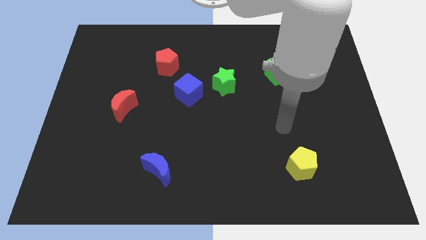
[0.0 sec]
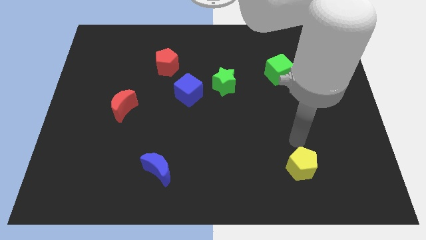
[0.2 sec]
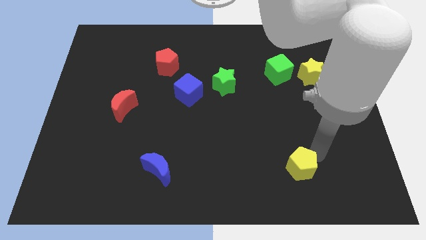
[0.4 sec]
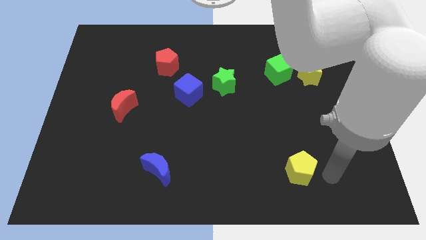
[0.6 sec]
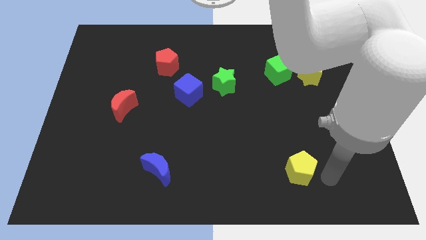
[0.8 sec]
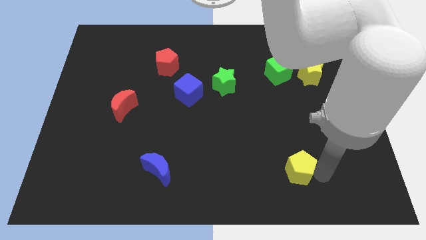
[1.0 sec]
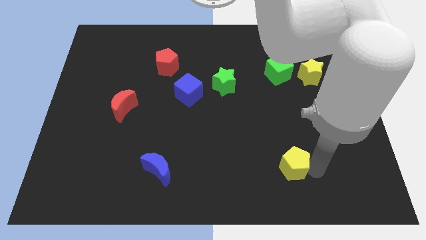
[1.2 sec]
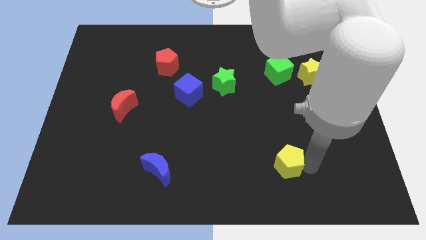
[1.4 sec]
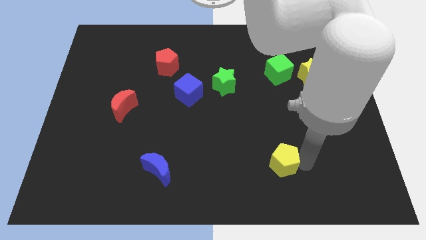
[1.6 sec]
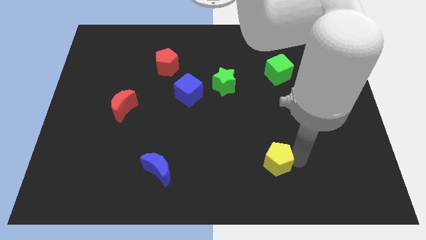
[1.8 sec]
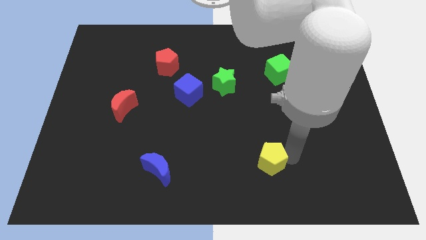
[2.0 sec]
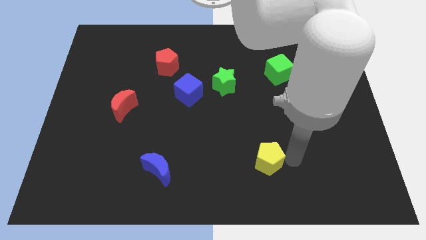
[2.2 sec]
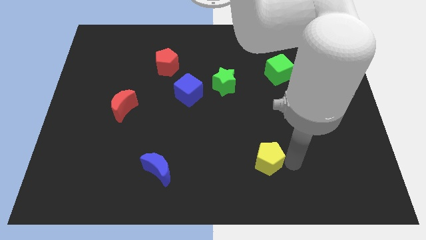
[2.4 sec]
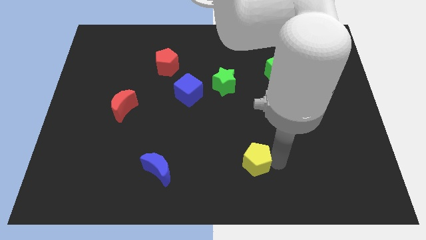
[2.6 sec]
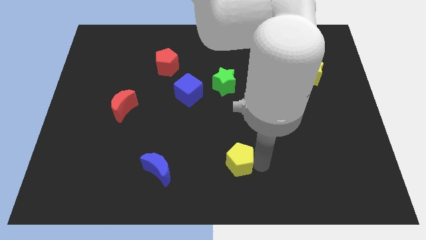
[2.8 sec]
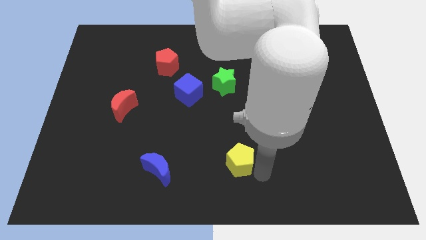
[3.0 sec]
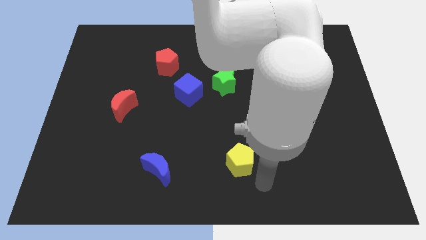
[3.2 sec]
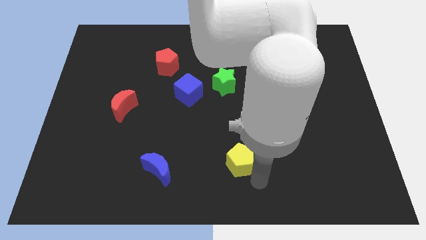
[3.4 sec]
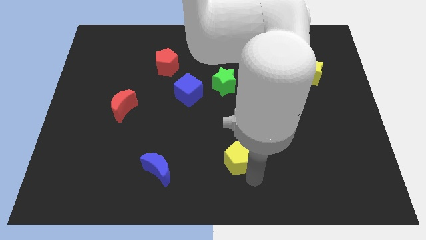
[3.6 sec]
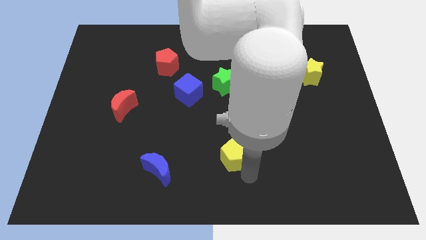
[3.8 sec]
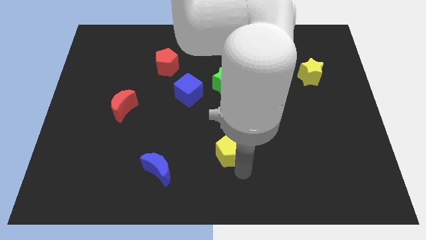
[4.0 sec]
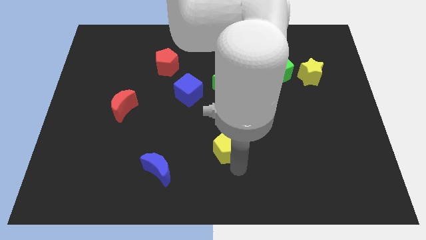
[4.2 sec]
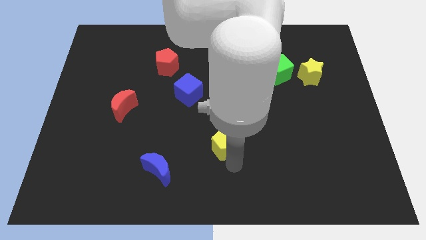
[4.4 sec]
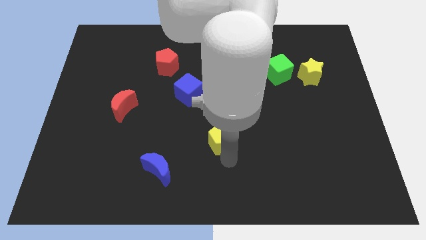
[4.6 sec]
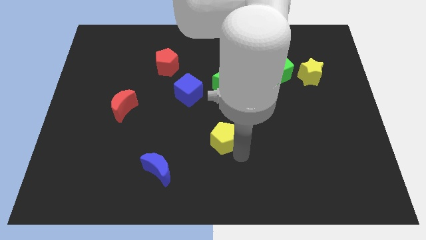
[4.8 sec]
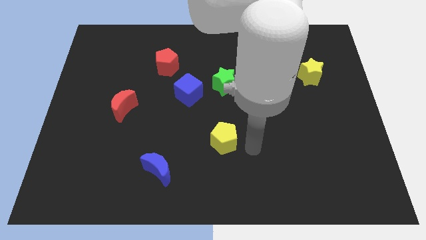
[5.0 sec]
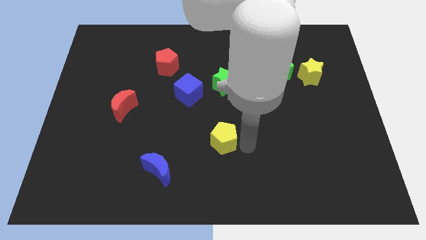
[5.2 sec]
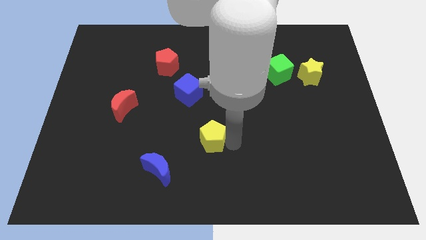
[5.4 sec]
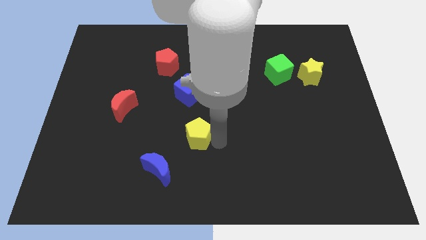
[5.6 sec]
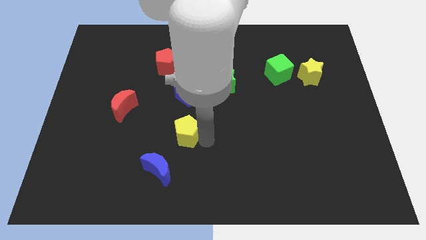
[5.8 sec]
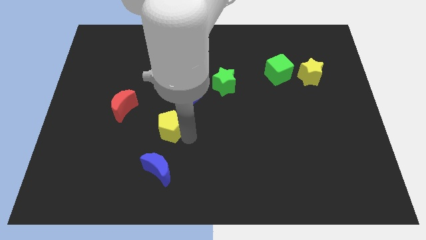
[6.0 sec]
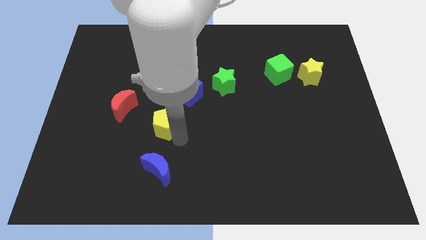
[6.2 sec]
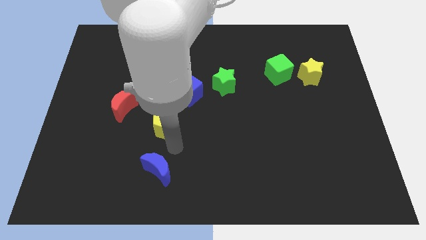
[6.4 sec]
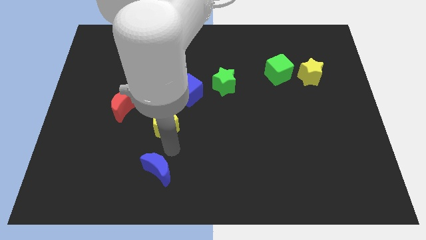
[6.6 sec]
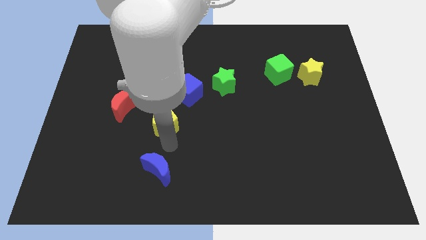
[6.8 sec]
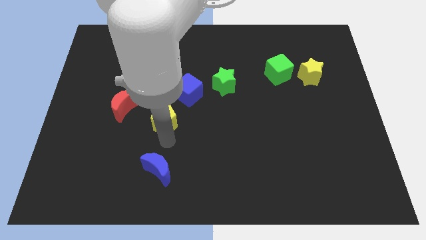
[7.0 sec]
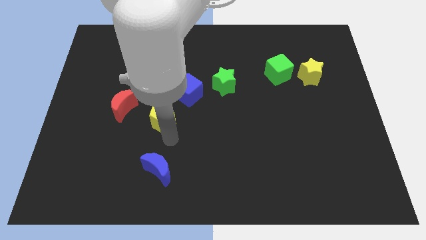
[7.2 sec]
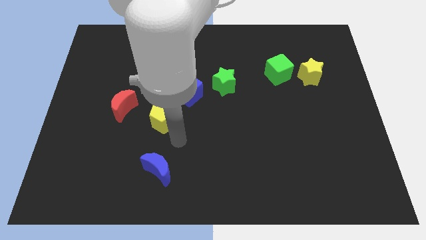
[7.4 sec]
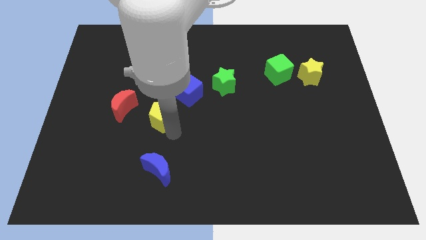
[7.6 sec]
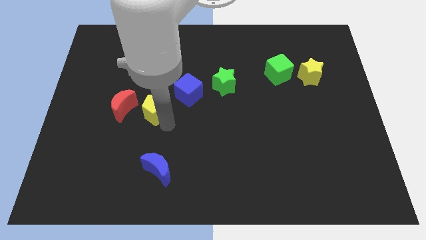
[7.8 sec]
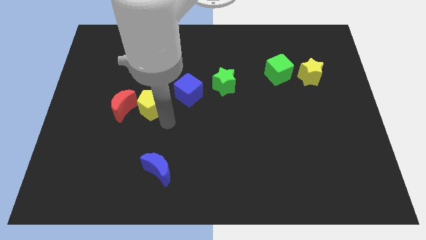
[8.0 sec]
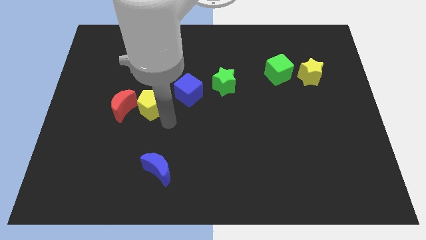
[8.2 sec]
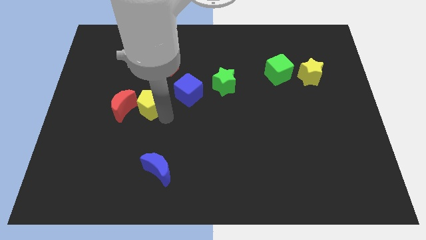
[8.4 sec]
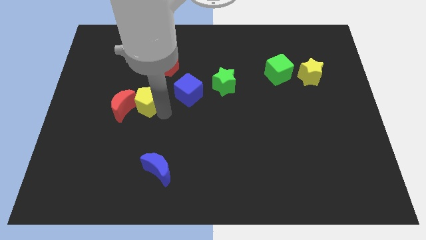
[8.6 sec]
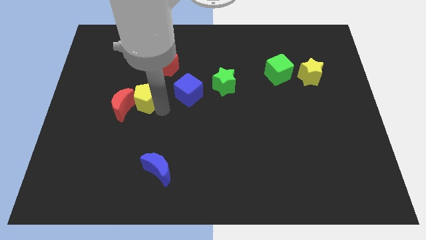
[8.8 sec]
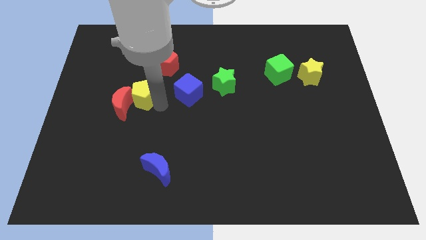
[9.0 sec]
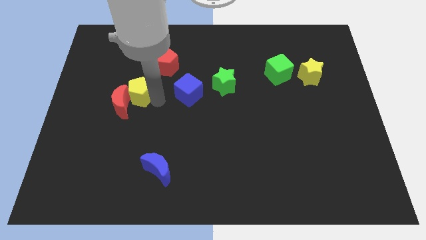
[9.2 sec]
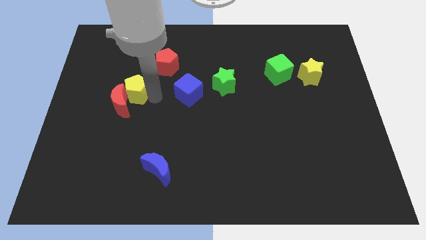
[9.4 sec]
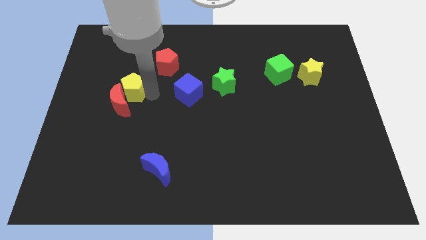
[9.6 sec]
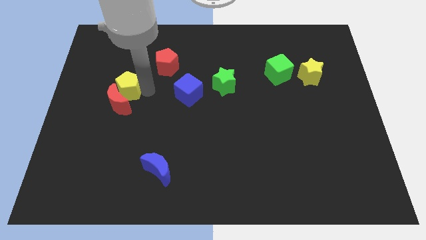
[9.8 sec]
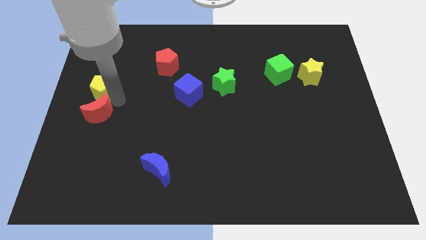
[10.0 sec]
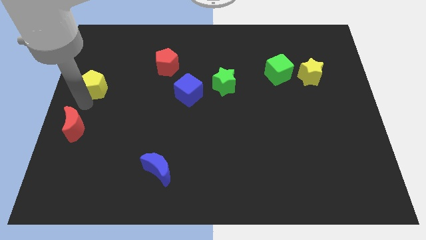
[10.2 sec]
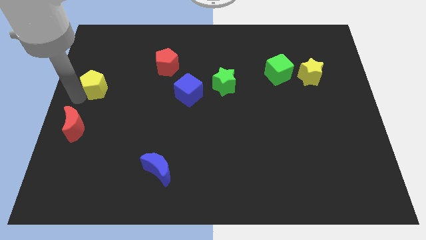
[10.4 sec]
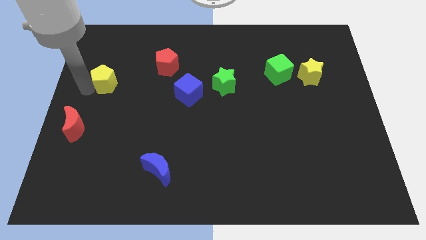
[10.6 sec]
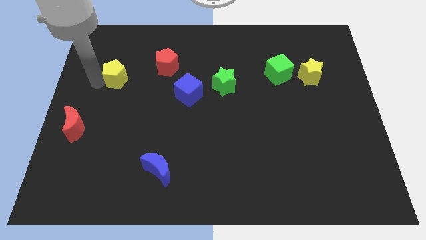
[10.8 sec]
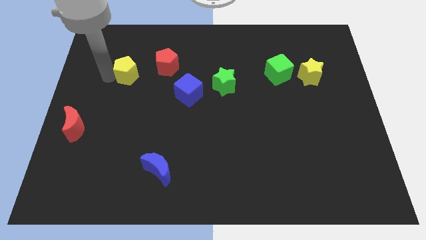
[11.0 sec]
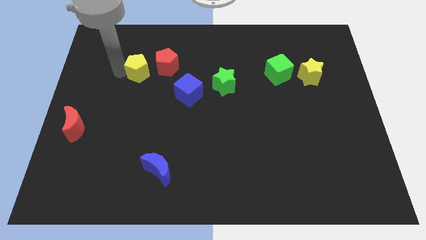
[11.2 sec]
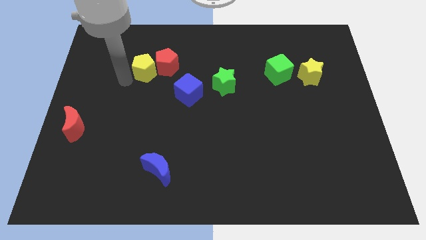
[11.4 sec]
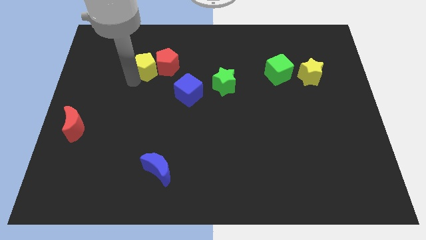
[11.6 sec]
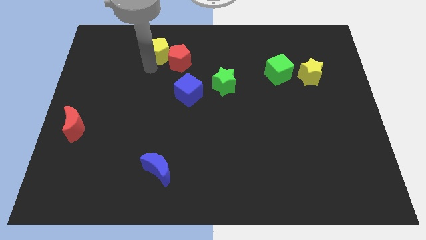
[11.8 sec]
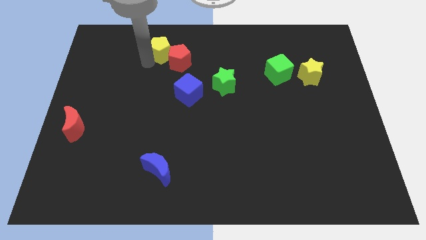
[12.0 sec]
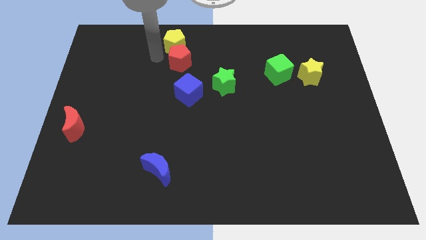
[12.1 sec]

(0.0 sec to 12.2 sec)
put the yellow pentagon to the top

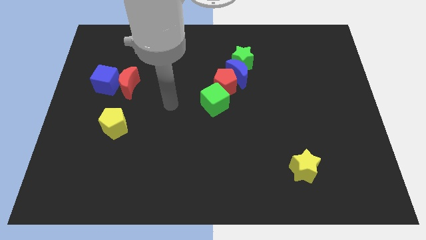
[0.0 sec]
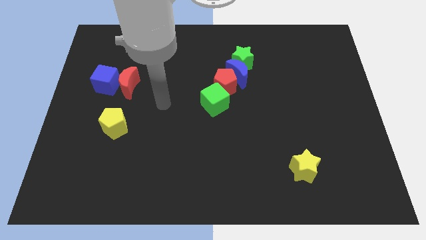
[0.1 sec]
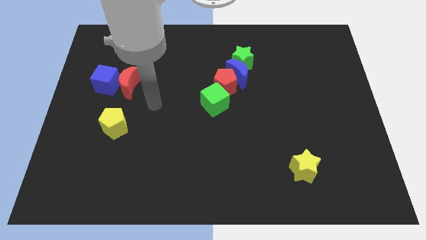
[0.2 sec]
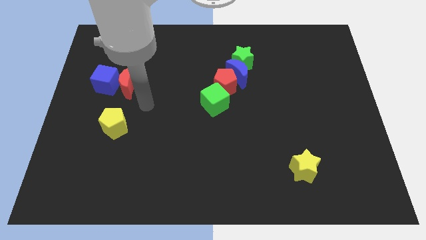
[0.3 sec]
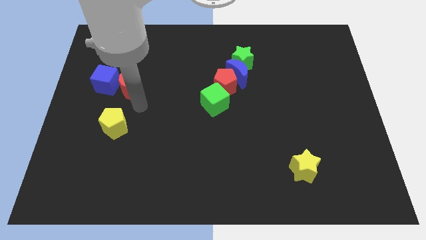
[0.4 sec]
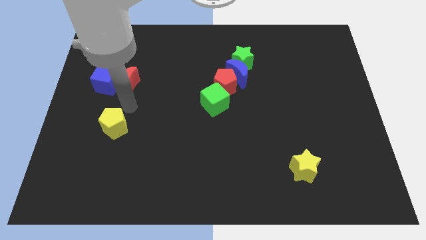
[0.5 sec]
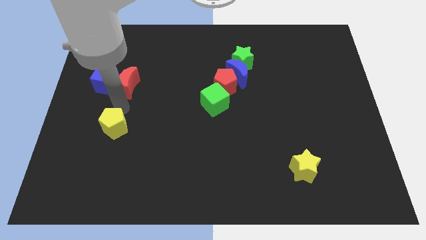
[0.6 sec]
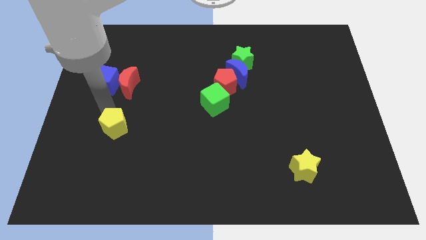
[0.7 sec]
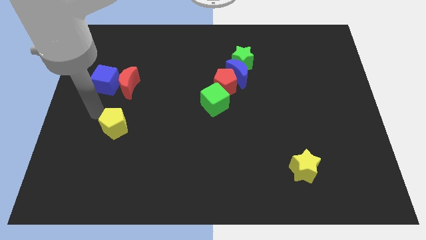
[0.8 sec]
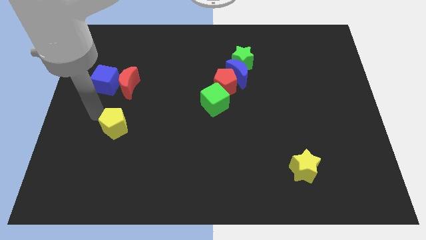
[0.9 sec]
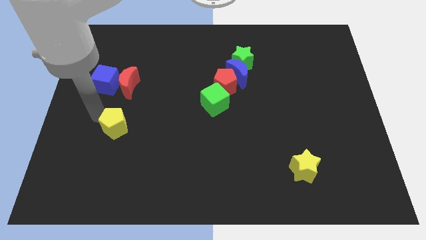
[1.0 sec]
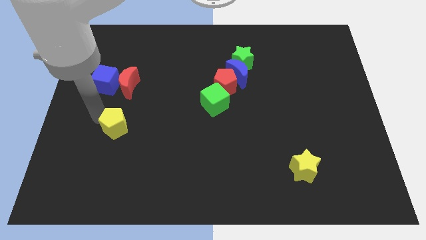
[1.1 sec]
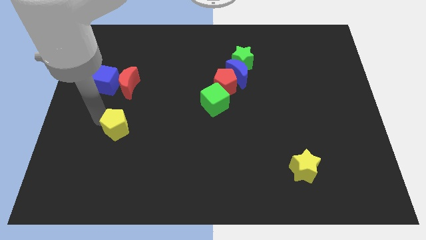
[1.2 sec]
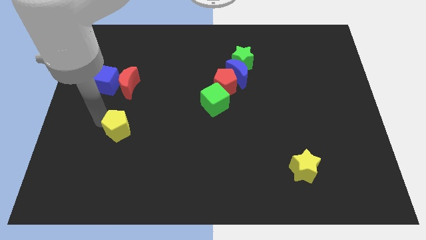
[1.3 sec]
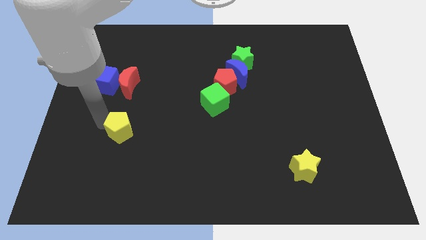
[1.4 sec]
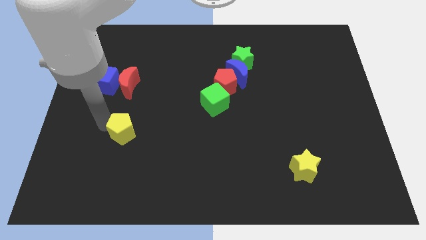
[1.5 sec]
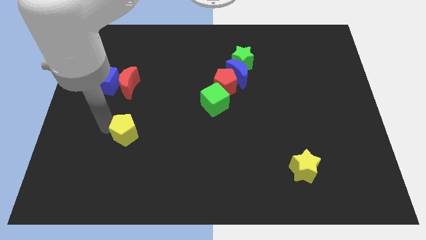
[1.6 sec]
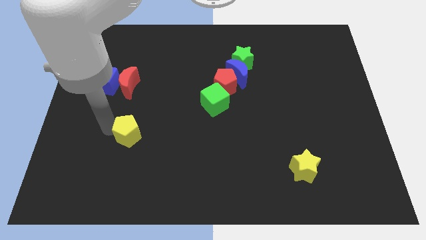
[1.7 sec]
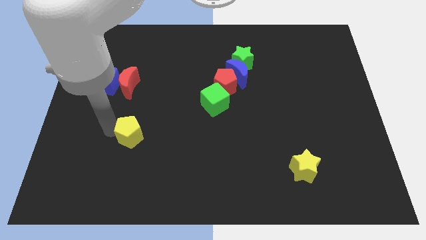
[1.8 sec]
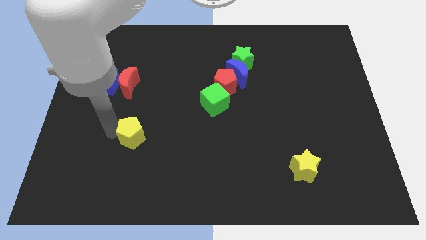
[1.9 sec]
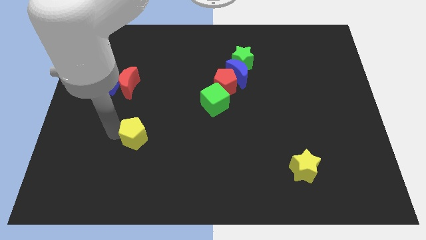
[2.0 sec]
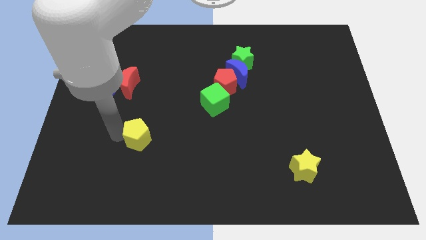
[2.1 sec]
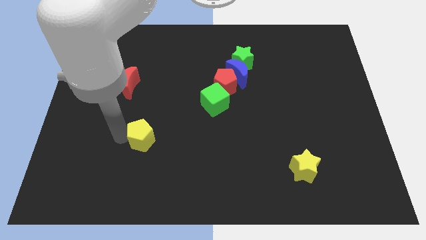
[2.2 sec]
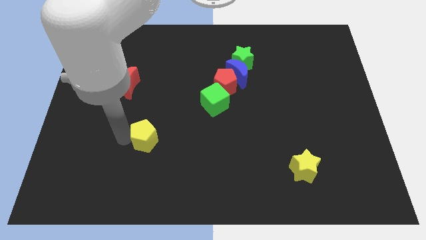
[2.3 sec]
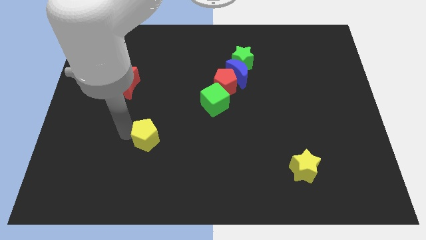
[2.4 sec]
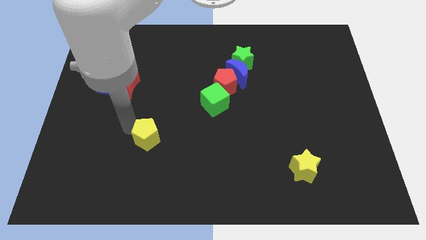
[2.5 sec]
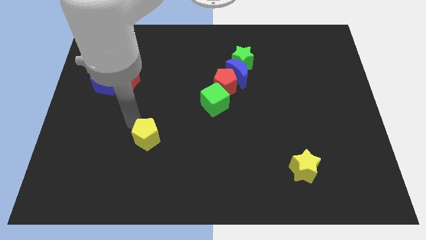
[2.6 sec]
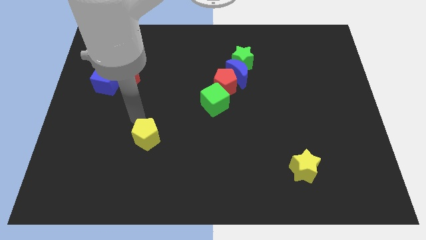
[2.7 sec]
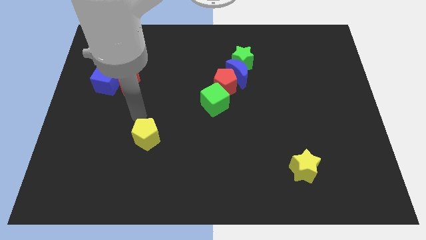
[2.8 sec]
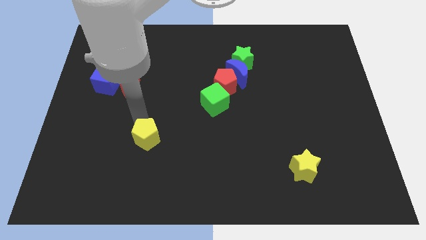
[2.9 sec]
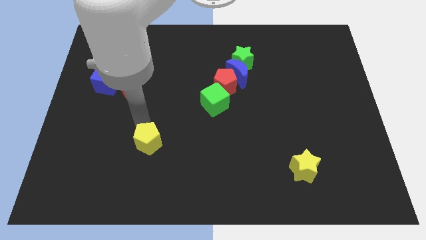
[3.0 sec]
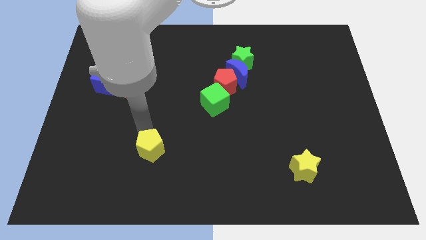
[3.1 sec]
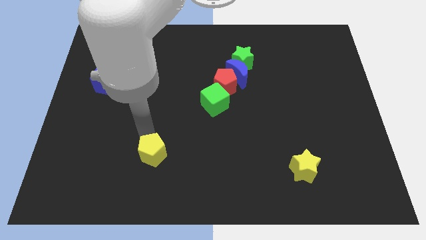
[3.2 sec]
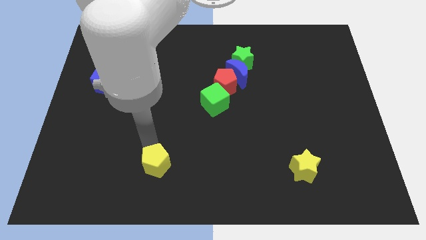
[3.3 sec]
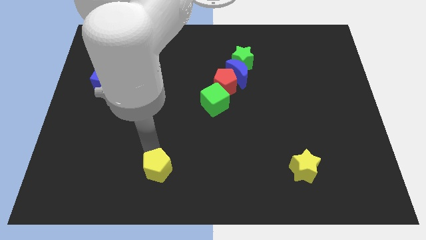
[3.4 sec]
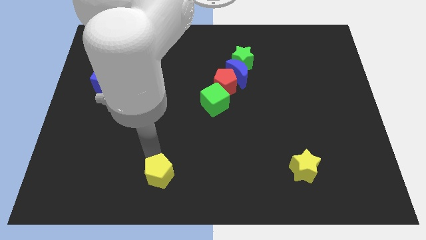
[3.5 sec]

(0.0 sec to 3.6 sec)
slide the yellow pentagon to the bottom
